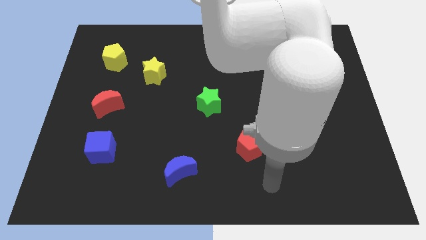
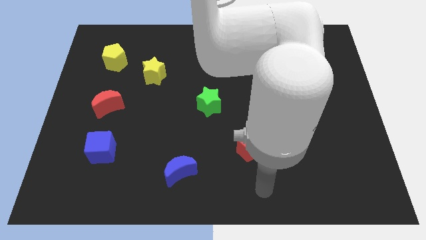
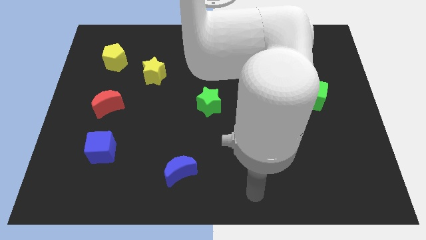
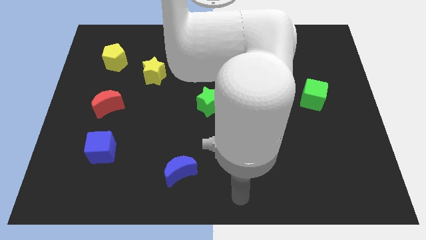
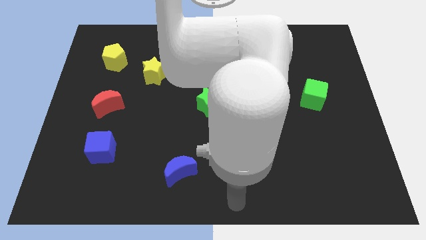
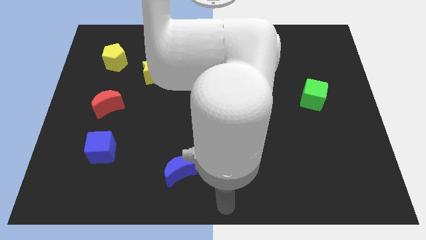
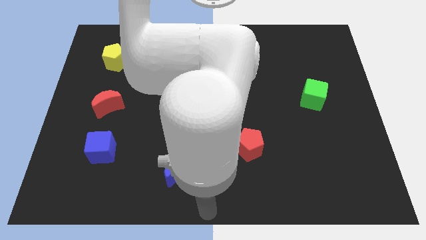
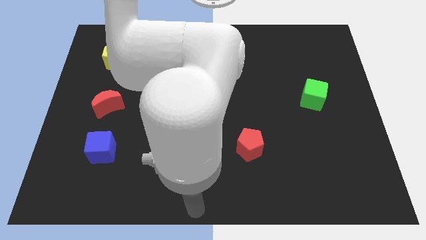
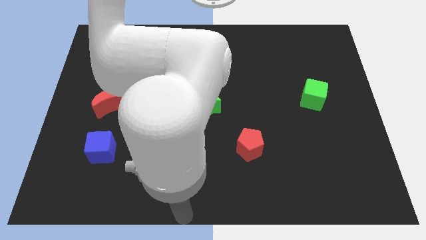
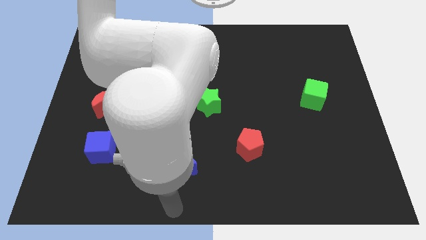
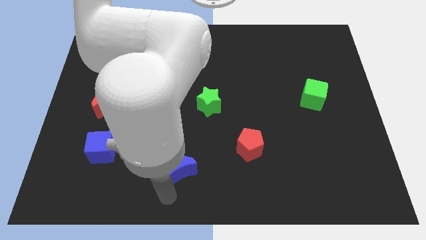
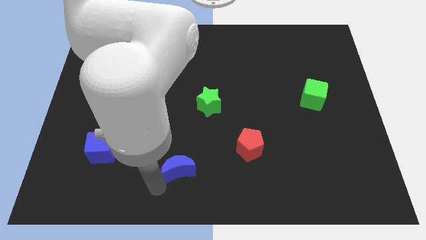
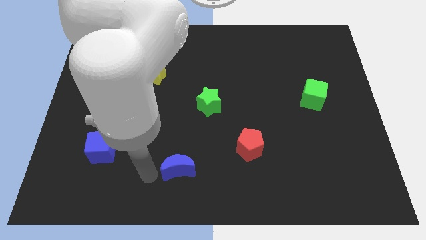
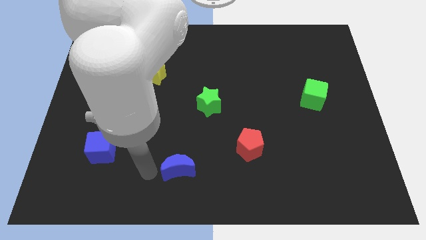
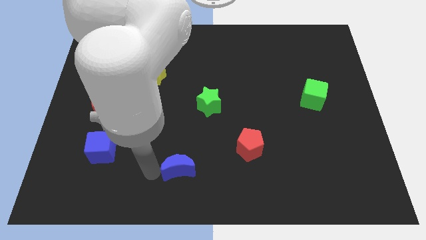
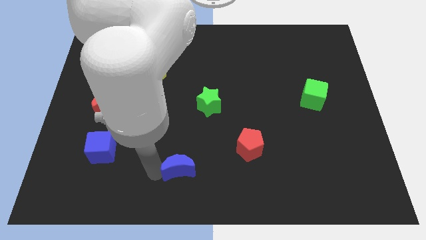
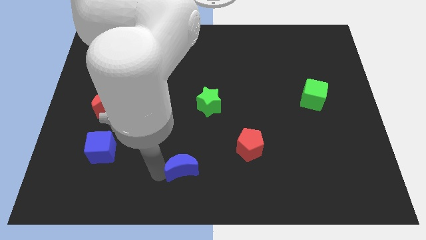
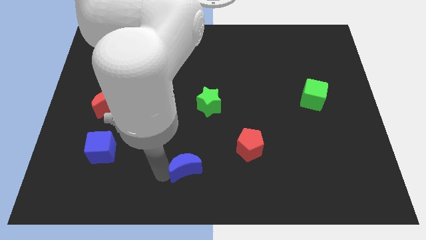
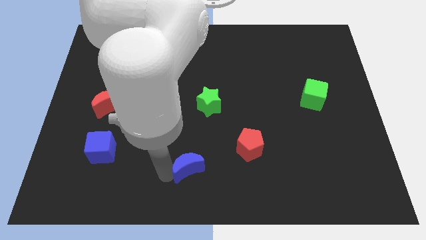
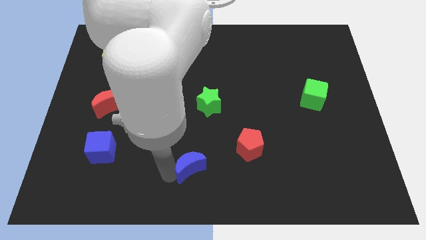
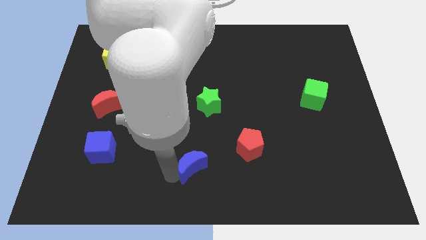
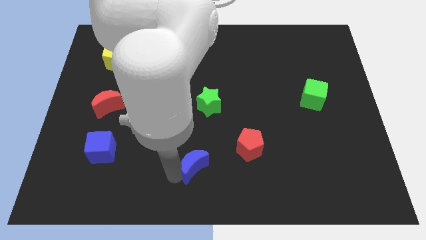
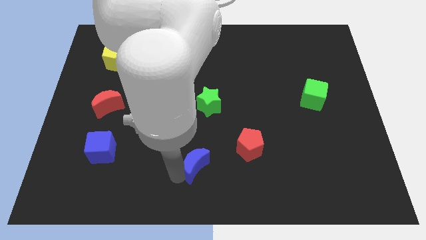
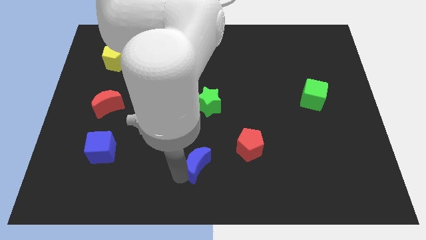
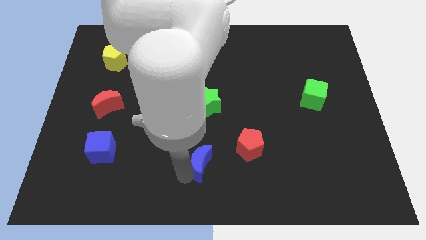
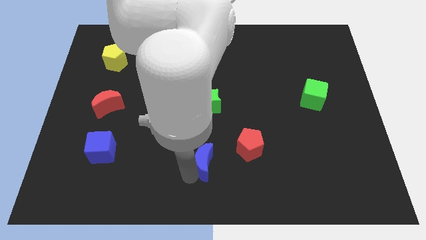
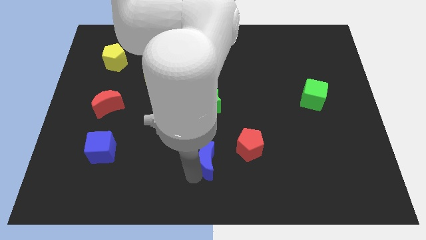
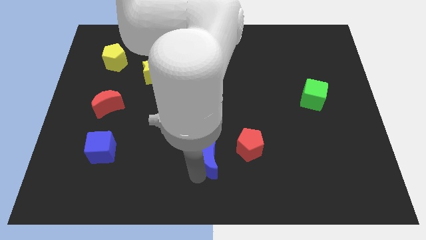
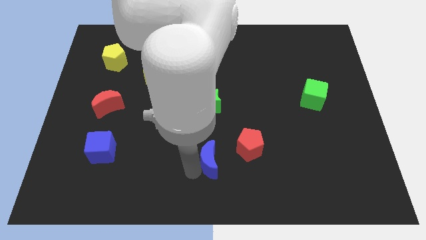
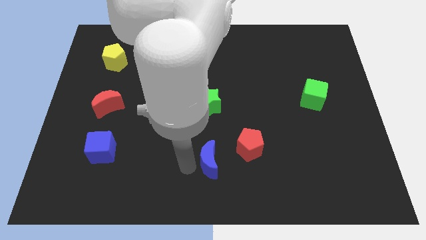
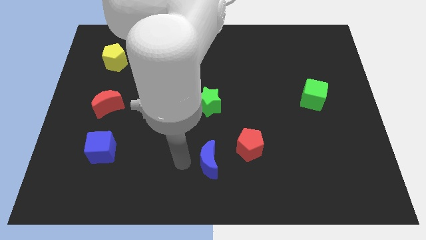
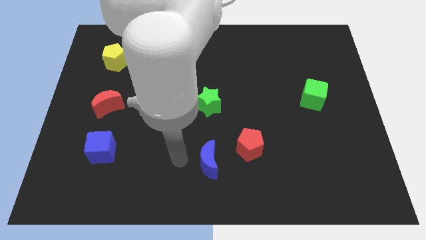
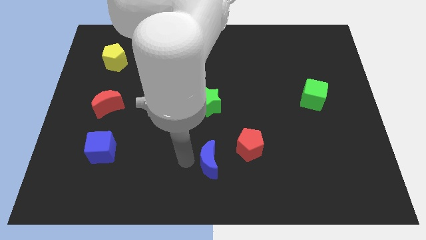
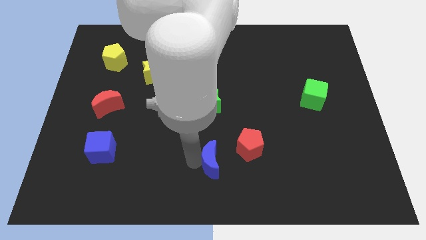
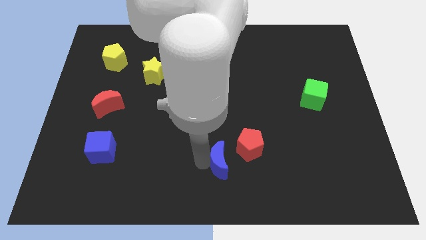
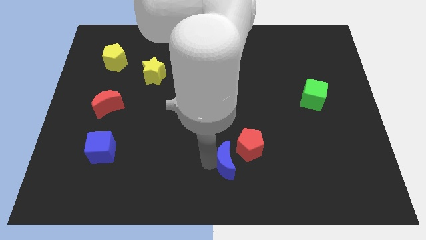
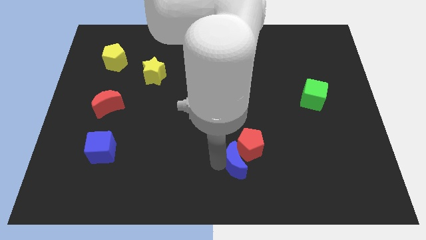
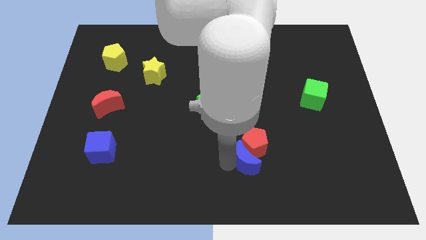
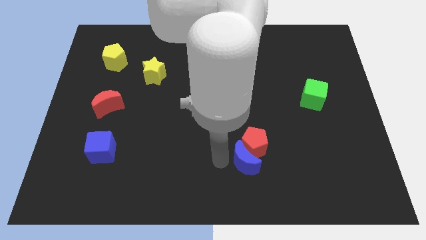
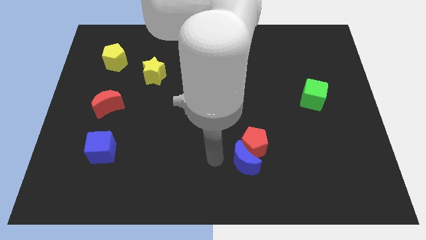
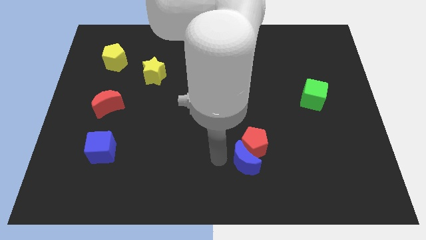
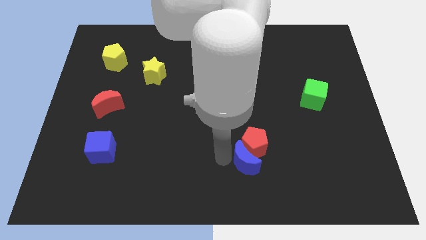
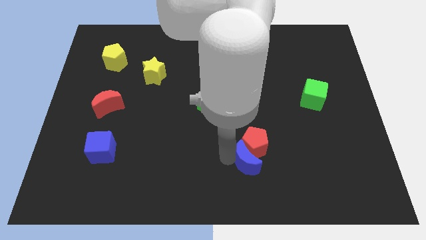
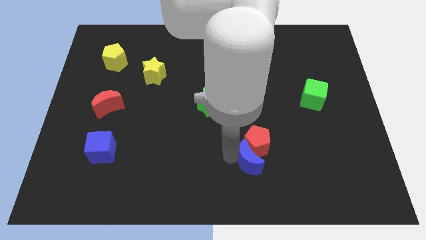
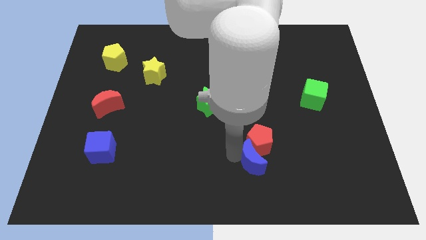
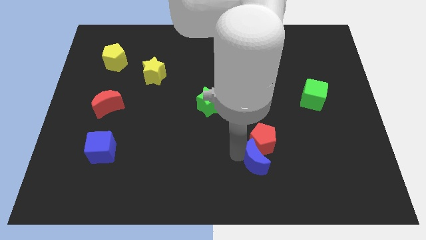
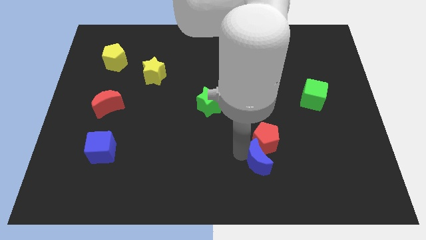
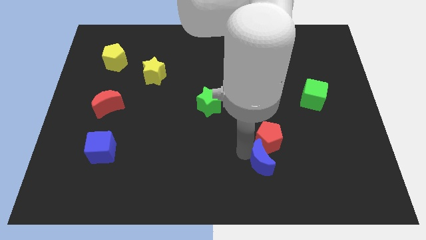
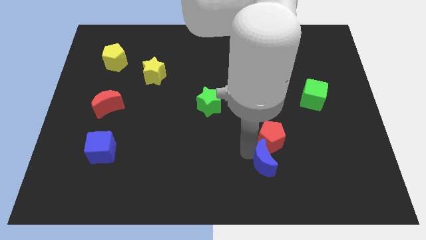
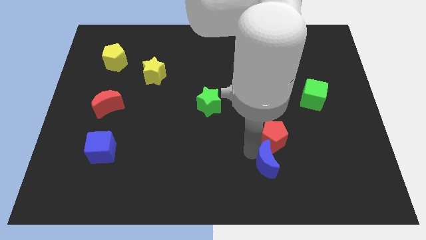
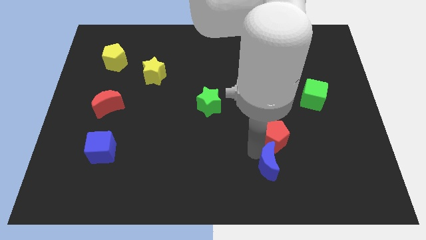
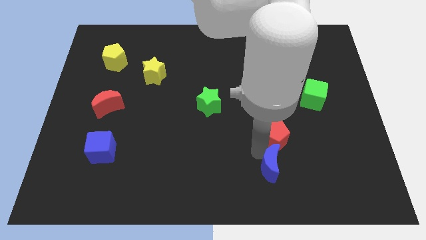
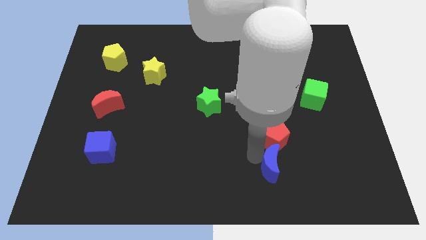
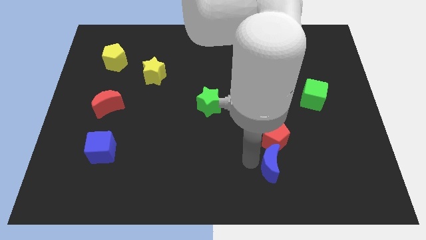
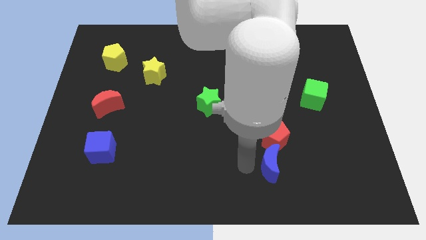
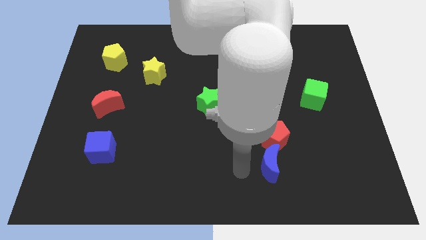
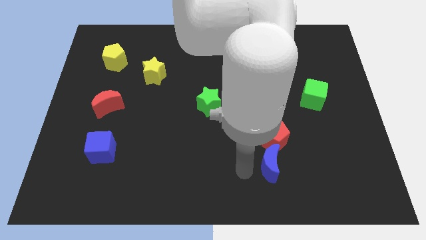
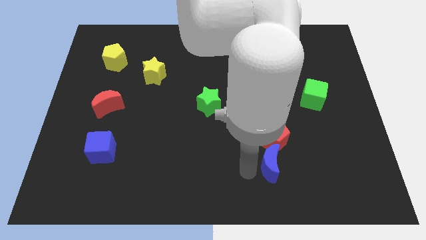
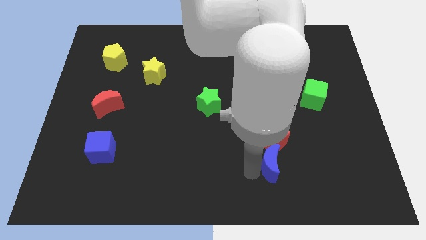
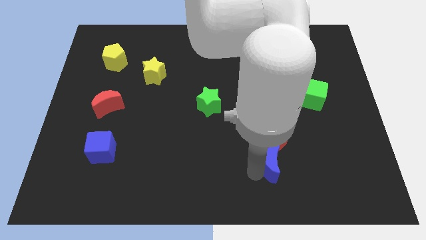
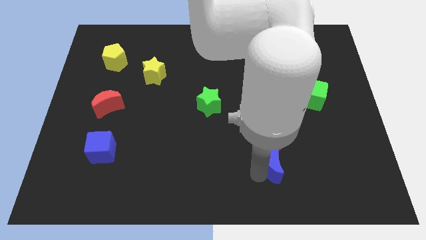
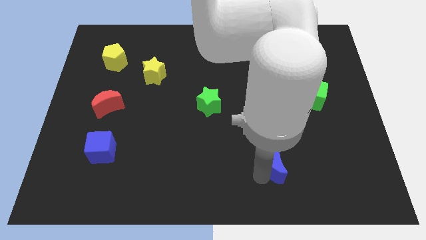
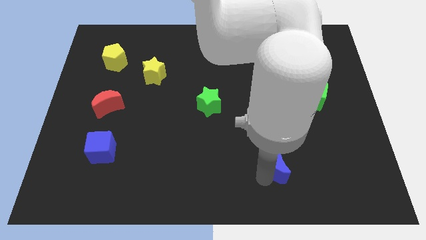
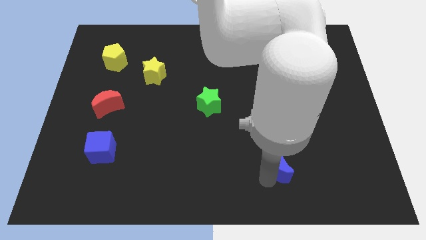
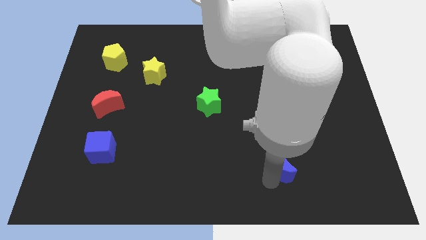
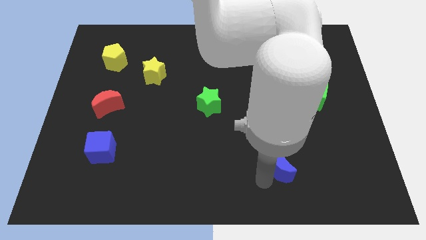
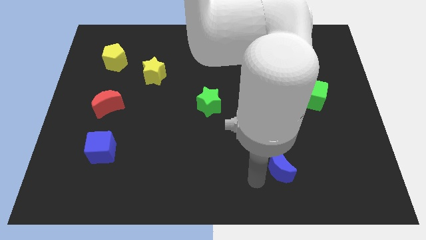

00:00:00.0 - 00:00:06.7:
slide the blue moon to the bottom right side of the red pentagon

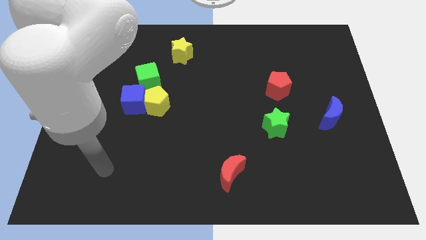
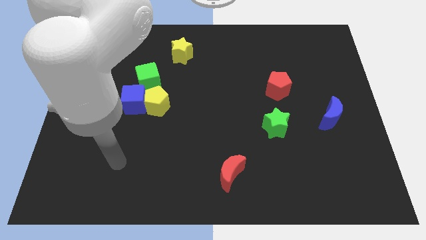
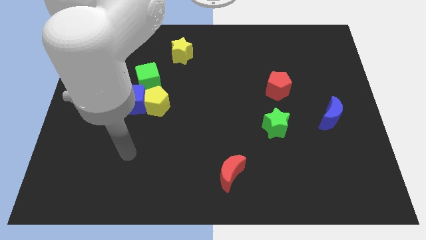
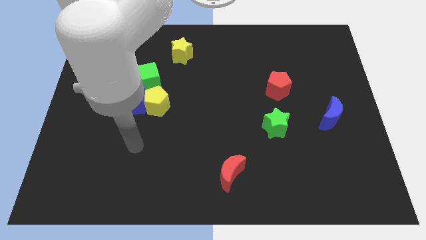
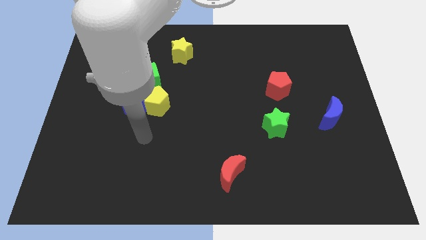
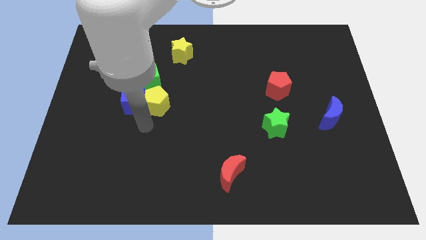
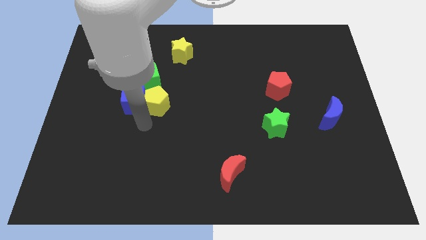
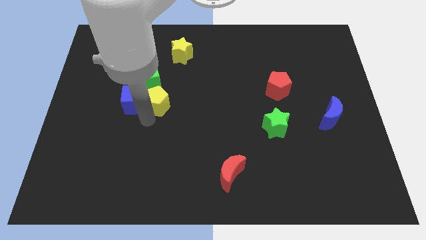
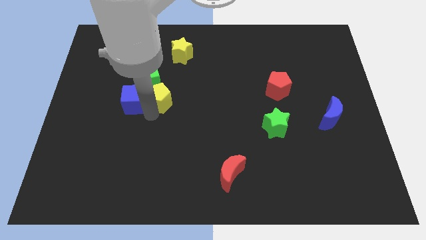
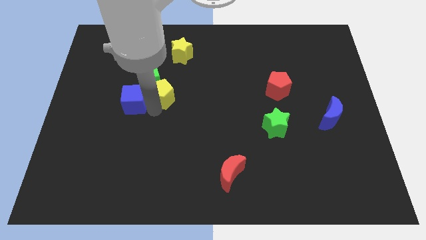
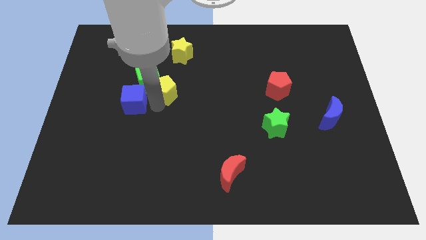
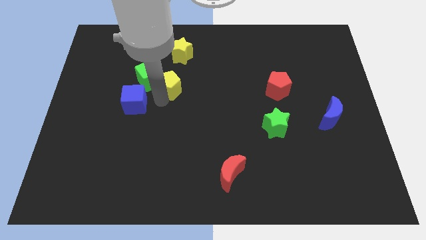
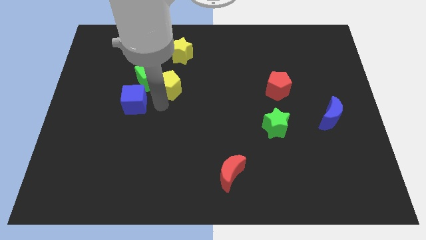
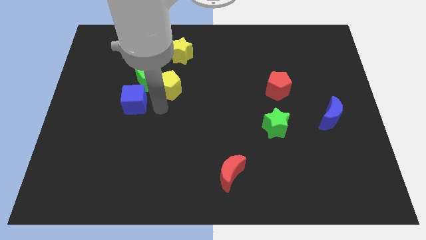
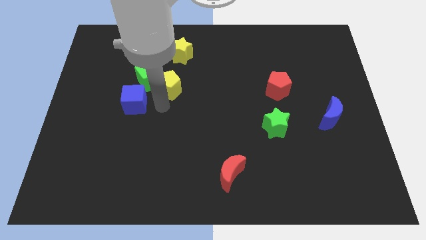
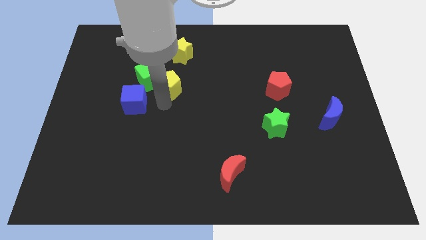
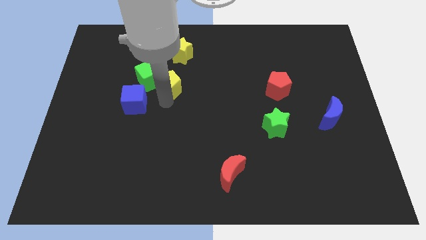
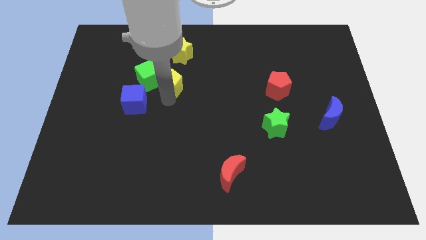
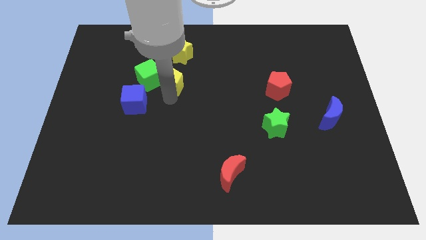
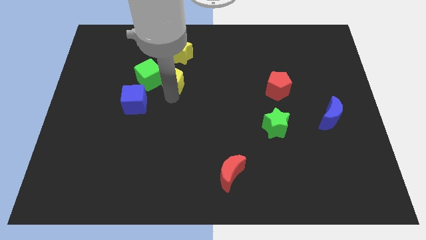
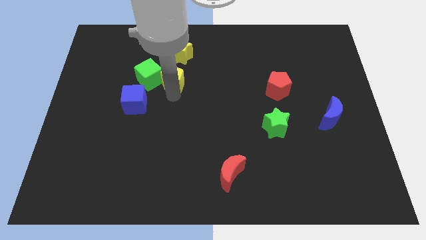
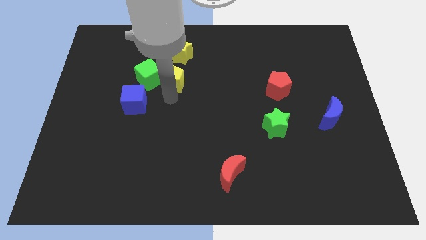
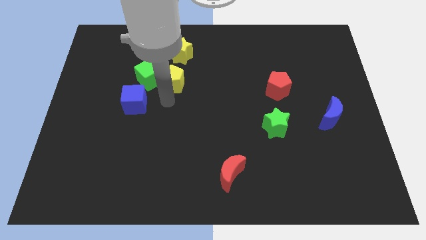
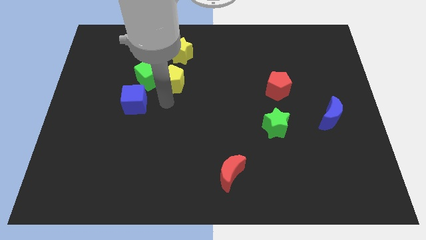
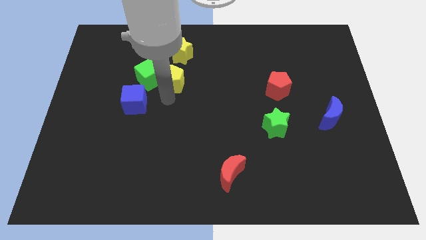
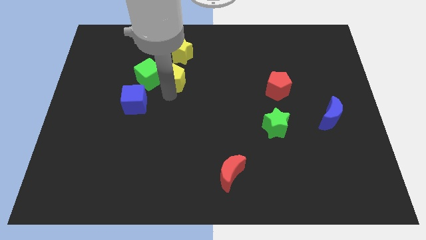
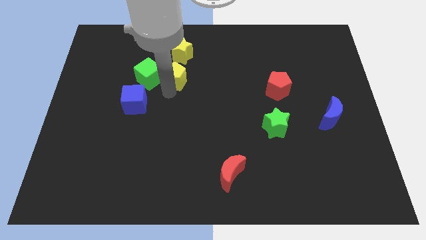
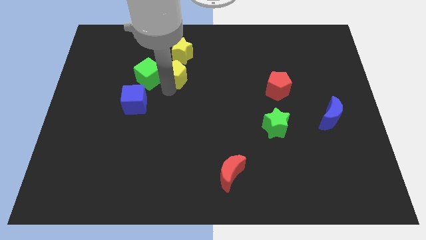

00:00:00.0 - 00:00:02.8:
move the yellow pentagon diagonally down and to the left of the yellow star
